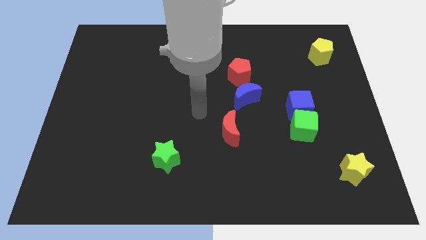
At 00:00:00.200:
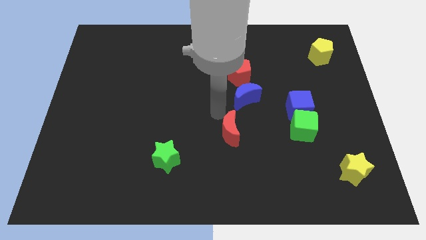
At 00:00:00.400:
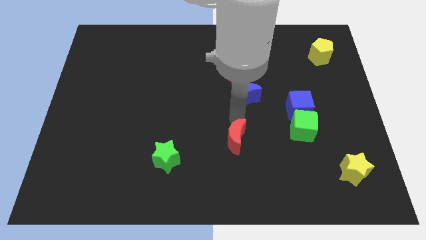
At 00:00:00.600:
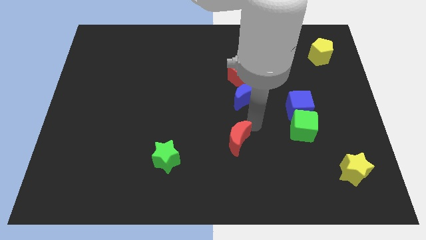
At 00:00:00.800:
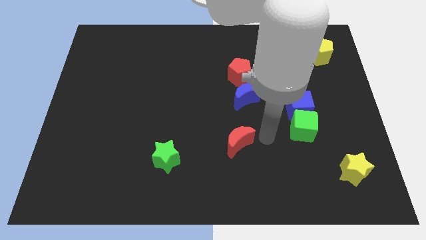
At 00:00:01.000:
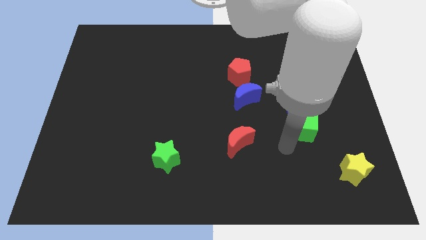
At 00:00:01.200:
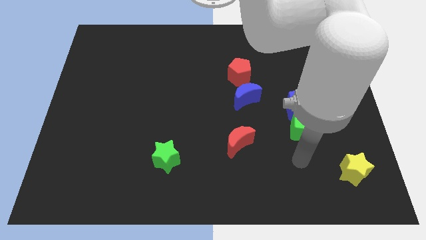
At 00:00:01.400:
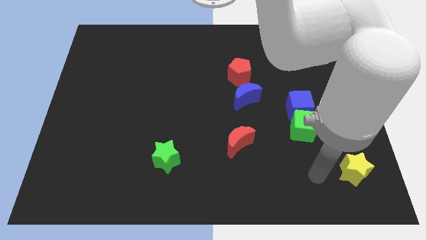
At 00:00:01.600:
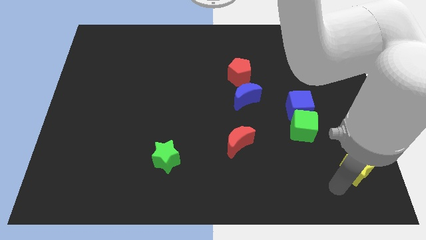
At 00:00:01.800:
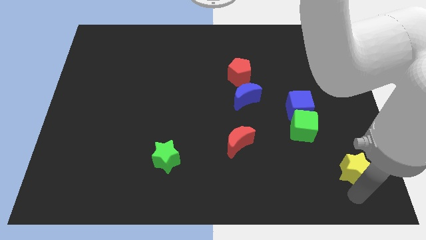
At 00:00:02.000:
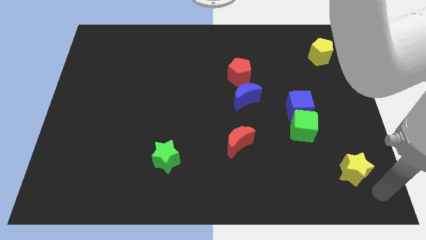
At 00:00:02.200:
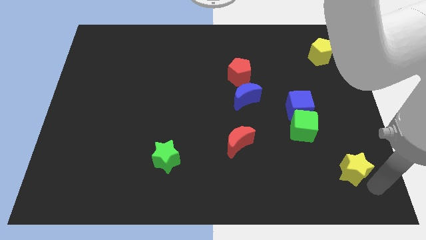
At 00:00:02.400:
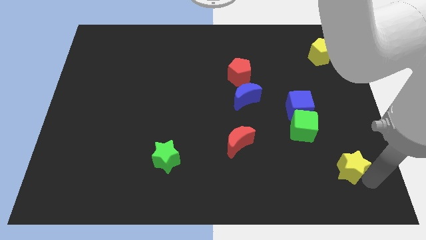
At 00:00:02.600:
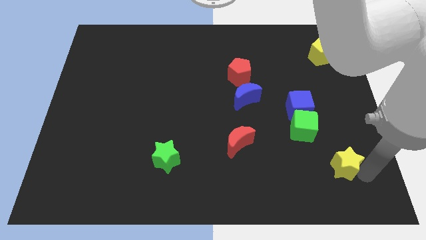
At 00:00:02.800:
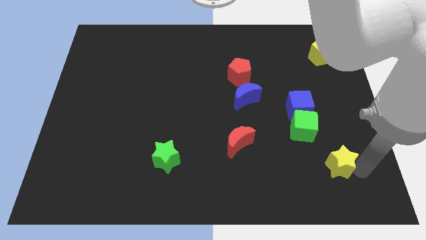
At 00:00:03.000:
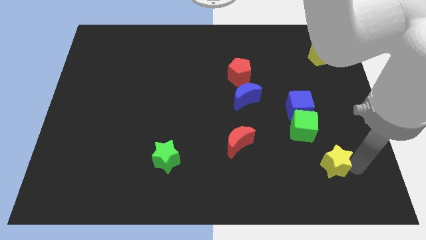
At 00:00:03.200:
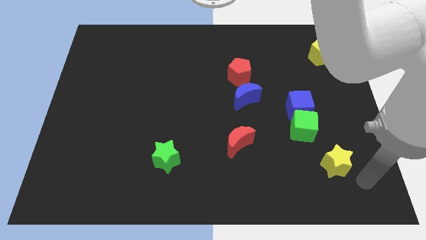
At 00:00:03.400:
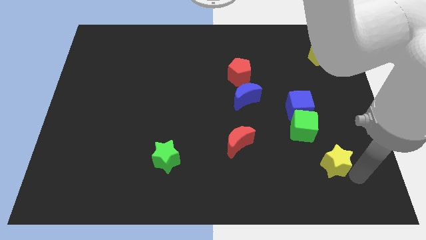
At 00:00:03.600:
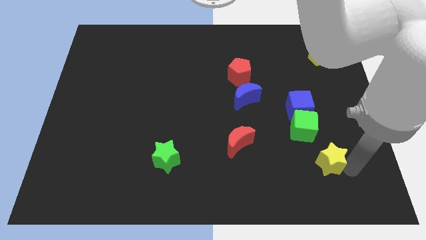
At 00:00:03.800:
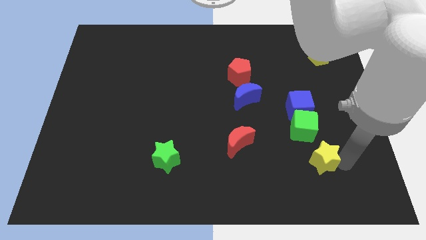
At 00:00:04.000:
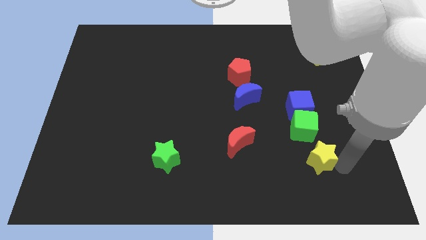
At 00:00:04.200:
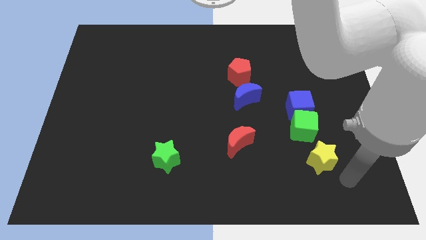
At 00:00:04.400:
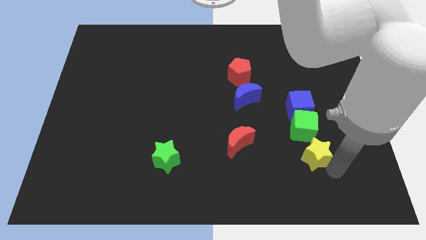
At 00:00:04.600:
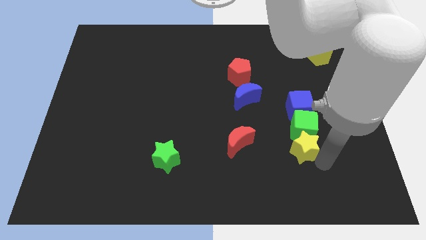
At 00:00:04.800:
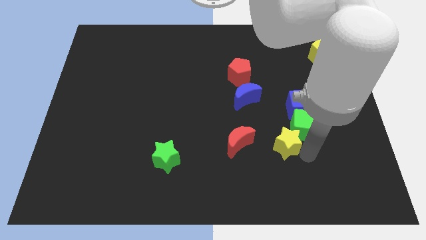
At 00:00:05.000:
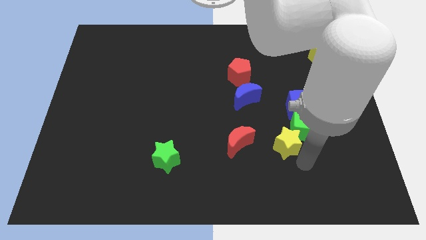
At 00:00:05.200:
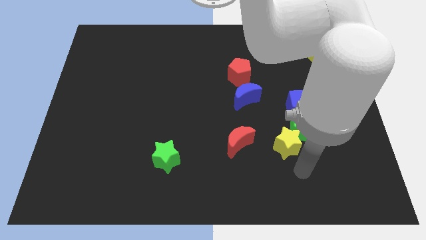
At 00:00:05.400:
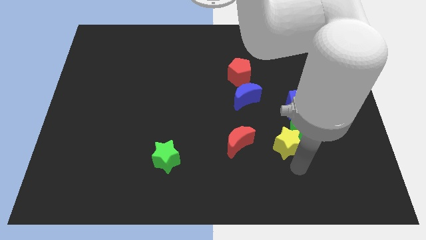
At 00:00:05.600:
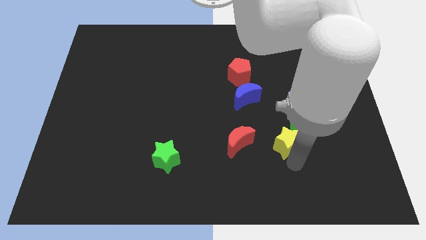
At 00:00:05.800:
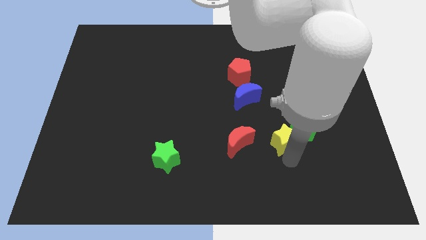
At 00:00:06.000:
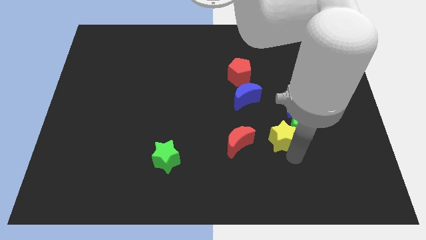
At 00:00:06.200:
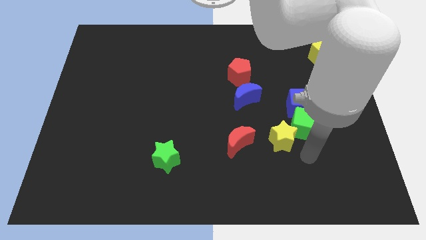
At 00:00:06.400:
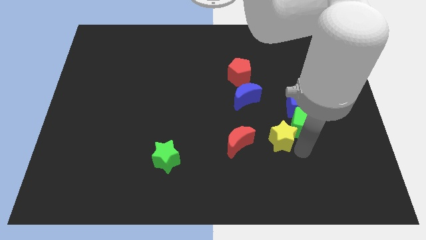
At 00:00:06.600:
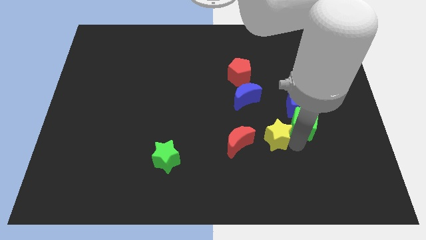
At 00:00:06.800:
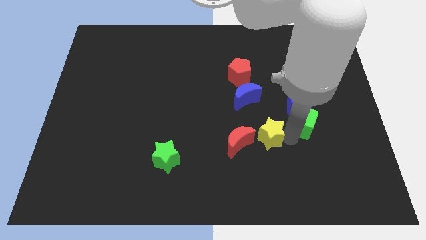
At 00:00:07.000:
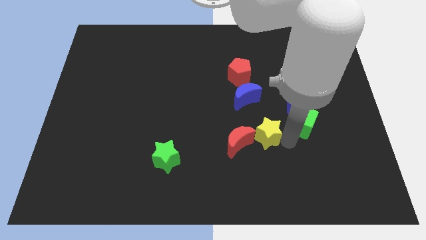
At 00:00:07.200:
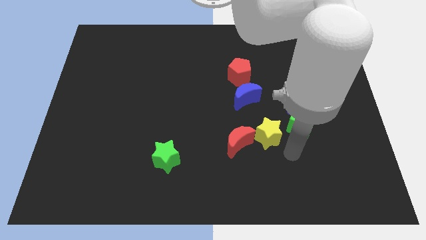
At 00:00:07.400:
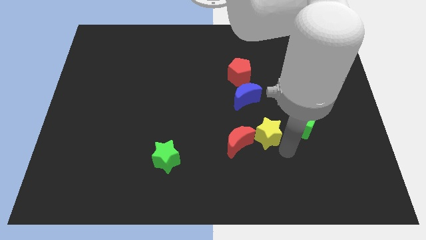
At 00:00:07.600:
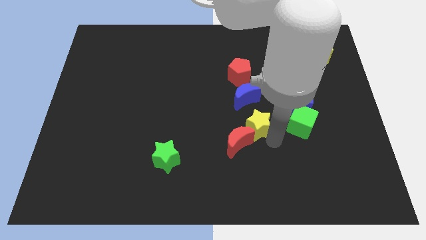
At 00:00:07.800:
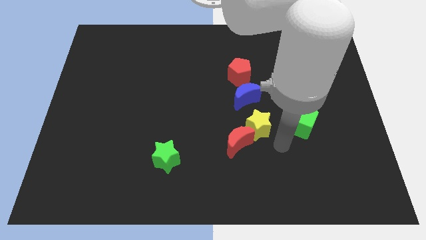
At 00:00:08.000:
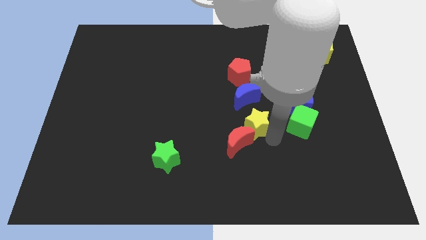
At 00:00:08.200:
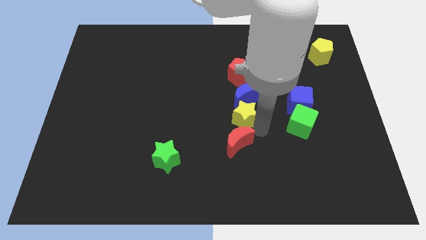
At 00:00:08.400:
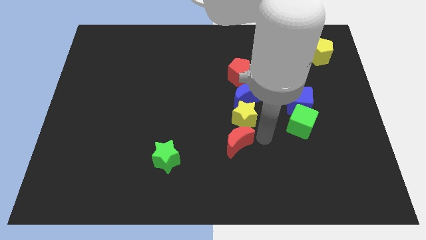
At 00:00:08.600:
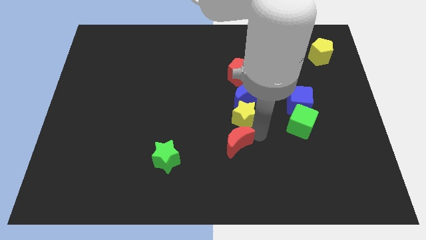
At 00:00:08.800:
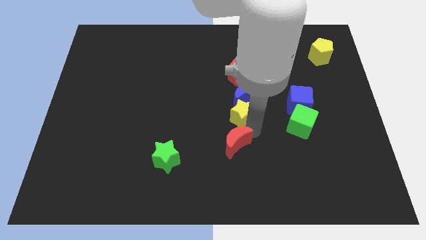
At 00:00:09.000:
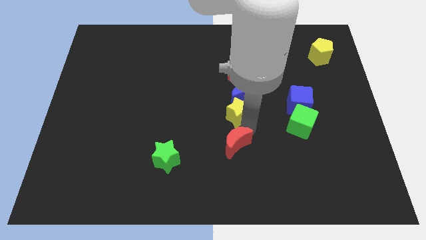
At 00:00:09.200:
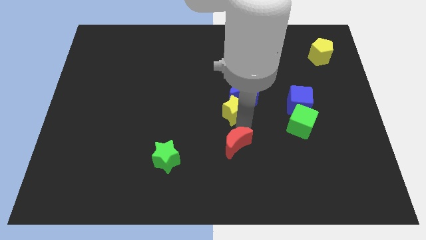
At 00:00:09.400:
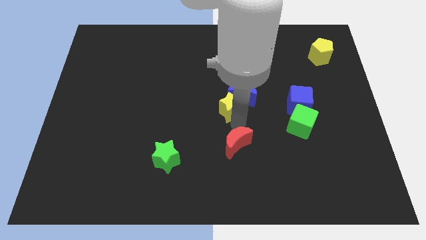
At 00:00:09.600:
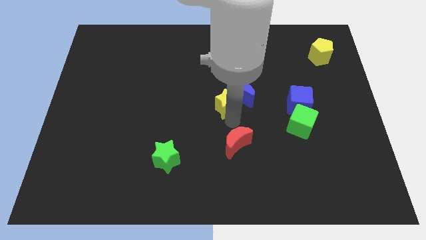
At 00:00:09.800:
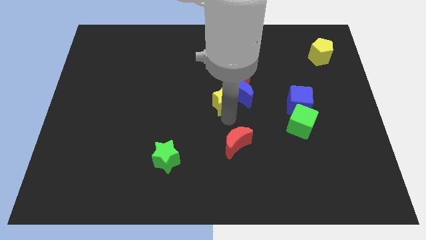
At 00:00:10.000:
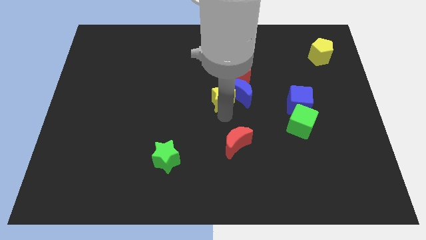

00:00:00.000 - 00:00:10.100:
move the yellow star to the top left of the blue moon

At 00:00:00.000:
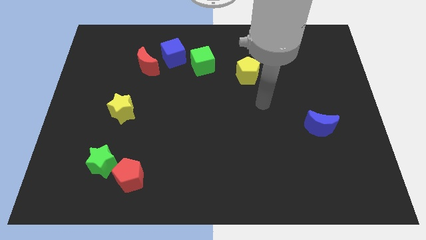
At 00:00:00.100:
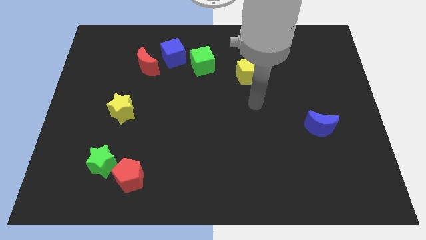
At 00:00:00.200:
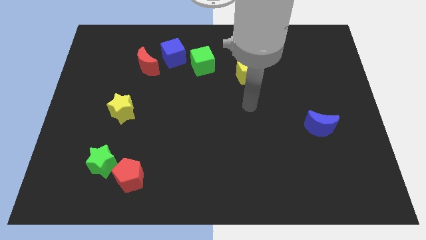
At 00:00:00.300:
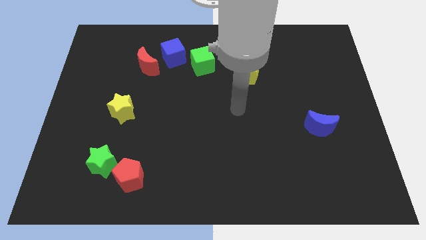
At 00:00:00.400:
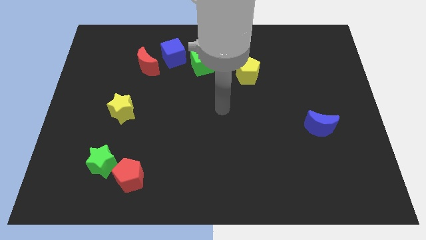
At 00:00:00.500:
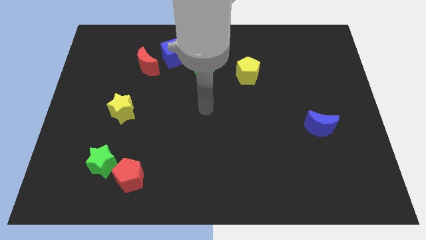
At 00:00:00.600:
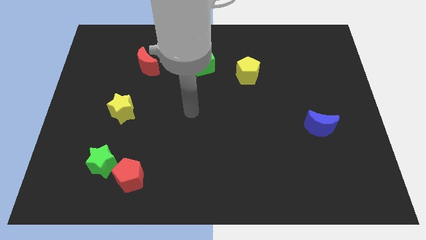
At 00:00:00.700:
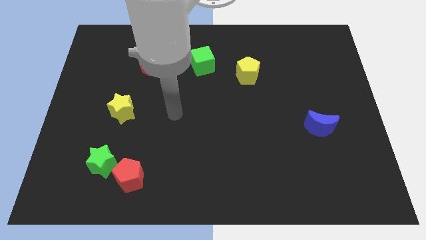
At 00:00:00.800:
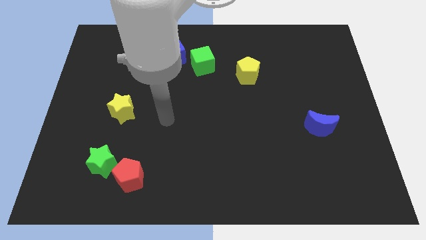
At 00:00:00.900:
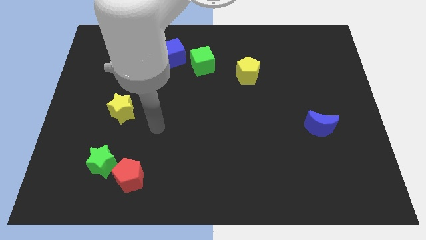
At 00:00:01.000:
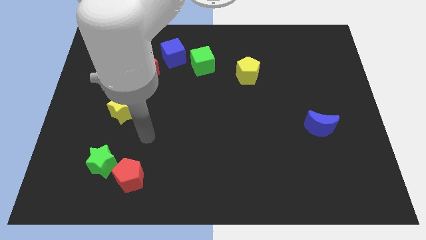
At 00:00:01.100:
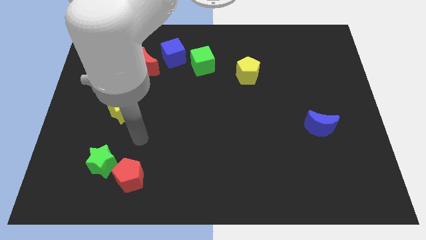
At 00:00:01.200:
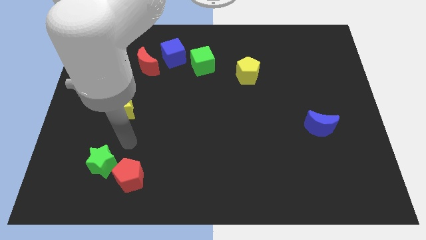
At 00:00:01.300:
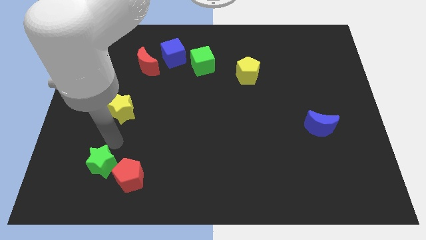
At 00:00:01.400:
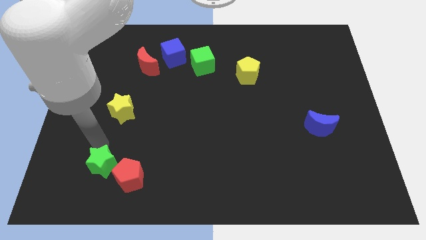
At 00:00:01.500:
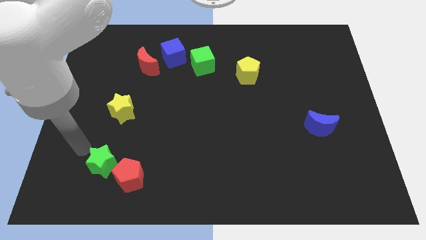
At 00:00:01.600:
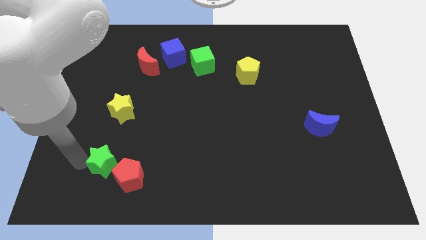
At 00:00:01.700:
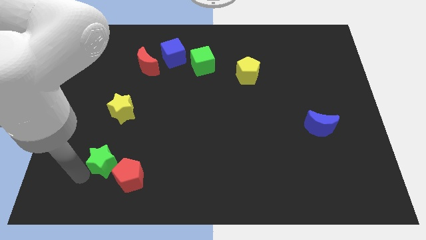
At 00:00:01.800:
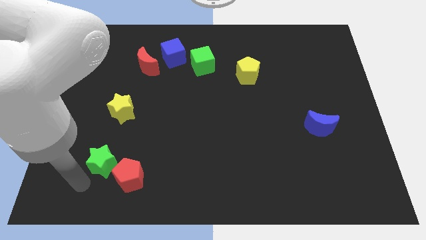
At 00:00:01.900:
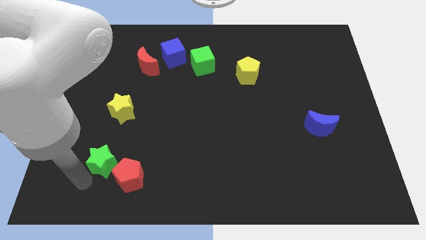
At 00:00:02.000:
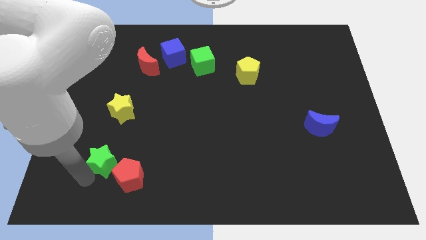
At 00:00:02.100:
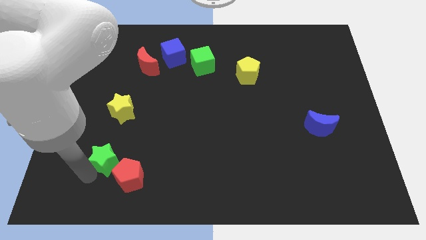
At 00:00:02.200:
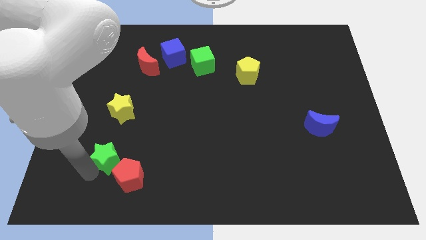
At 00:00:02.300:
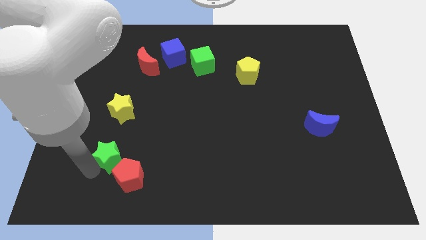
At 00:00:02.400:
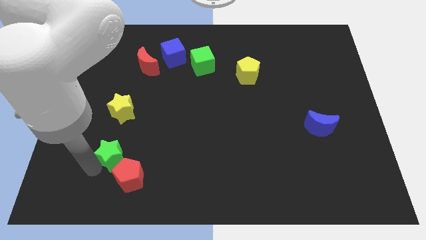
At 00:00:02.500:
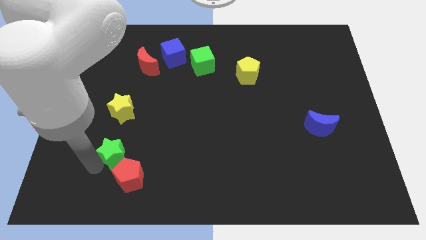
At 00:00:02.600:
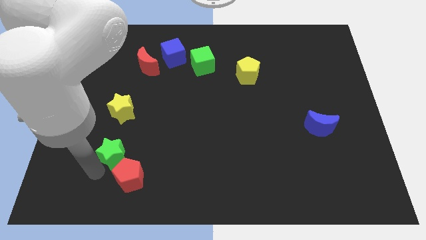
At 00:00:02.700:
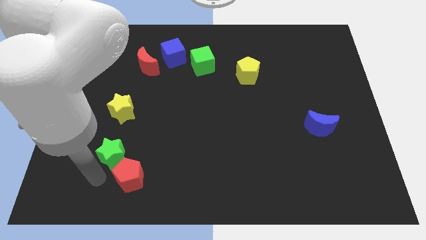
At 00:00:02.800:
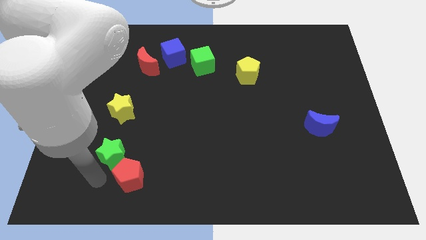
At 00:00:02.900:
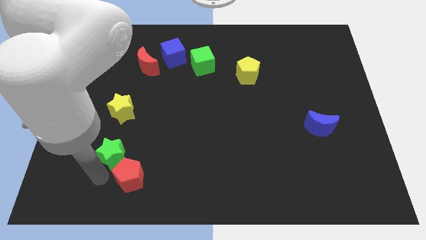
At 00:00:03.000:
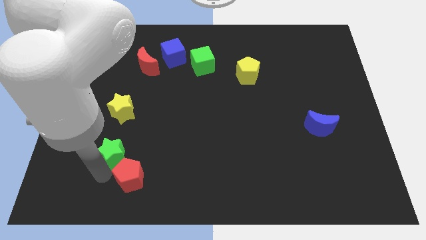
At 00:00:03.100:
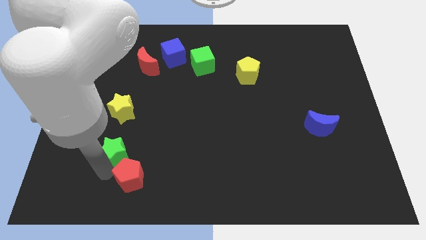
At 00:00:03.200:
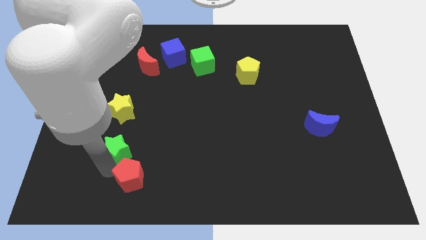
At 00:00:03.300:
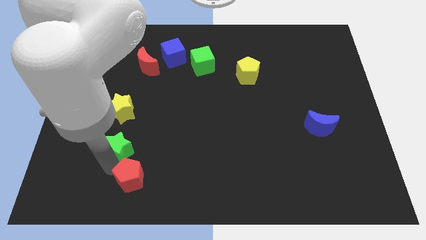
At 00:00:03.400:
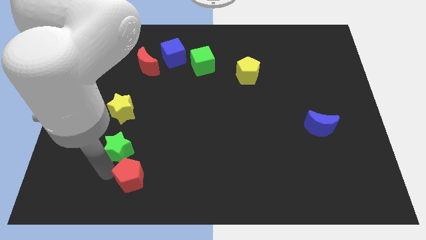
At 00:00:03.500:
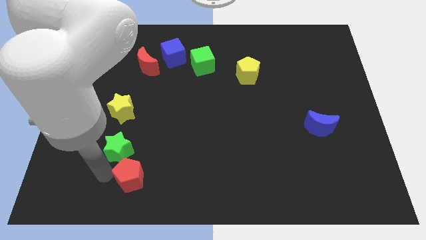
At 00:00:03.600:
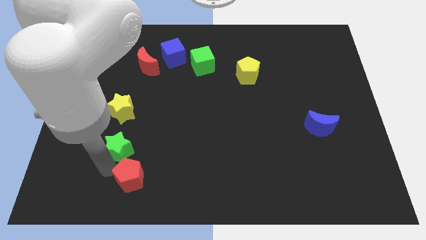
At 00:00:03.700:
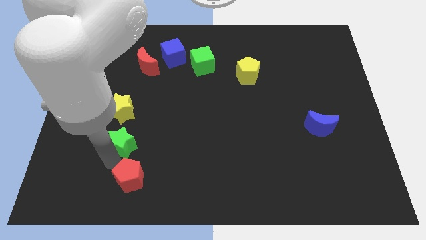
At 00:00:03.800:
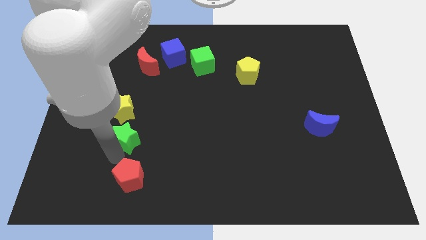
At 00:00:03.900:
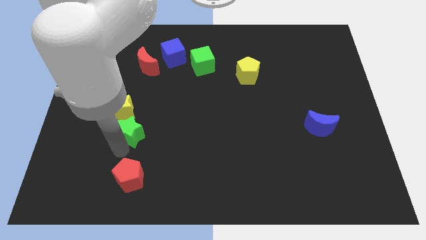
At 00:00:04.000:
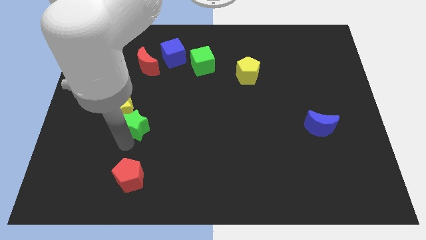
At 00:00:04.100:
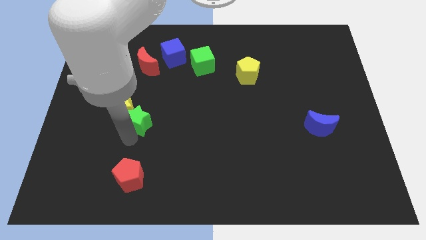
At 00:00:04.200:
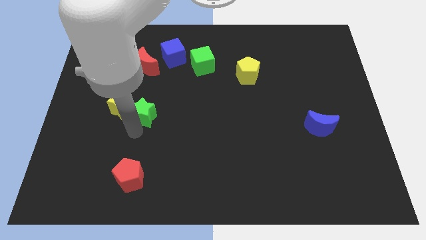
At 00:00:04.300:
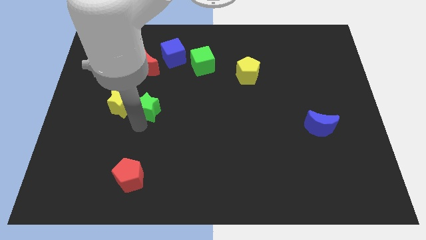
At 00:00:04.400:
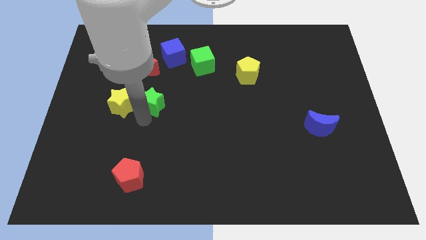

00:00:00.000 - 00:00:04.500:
push the green star to the top right of the yellow star
